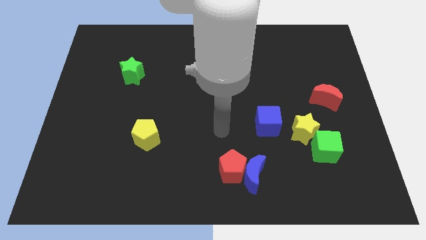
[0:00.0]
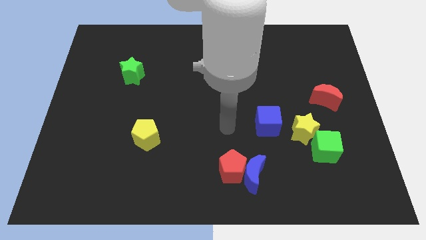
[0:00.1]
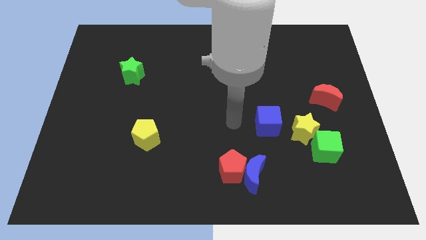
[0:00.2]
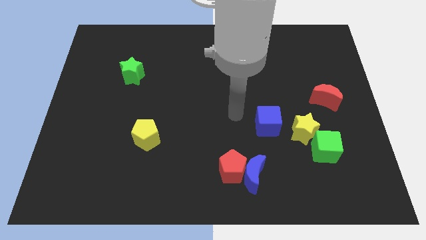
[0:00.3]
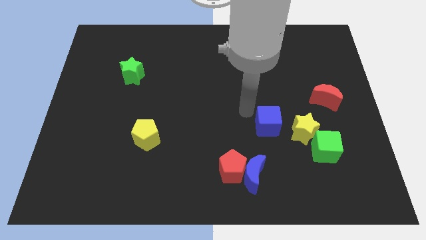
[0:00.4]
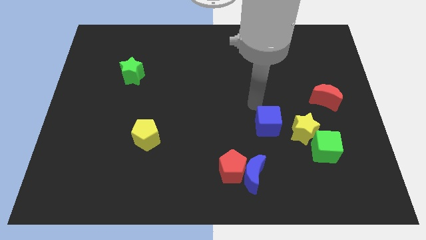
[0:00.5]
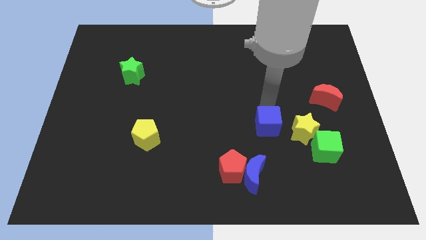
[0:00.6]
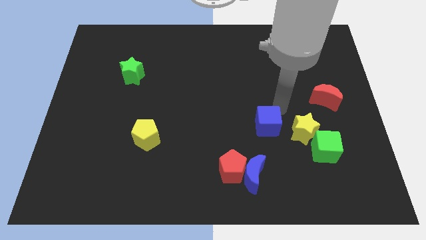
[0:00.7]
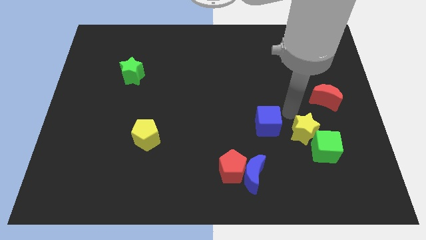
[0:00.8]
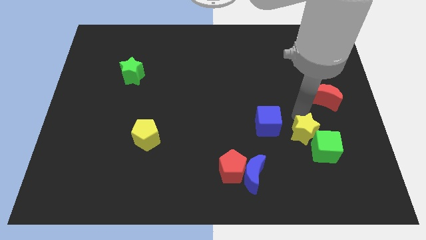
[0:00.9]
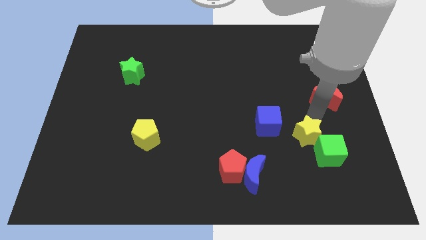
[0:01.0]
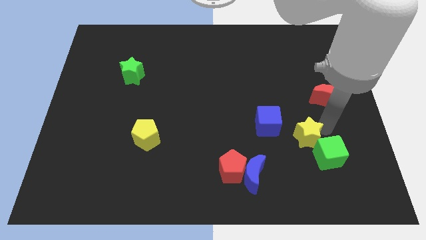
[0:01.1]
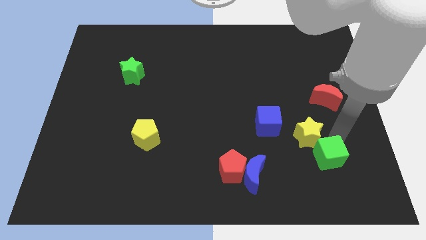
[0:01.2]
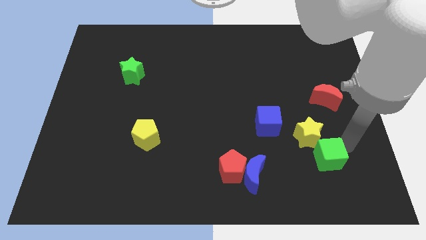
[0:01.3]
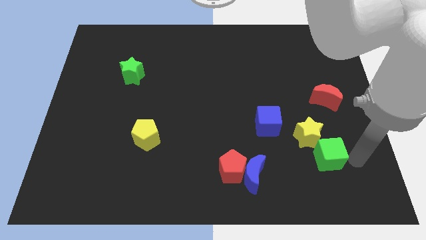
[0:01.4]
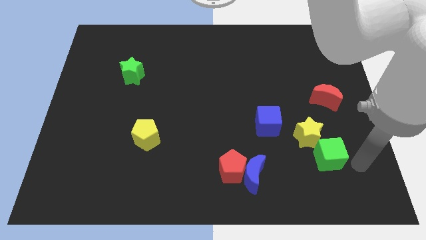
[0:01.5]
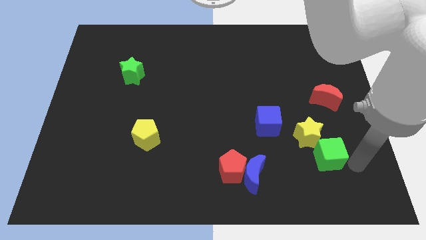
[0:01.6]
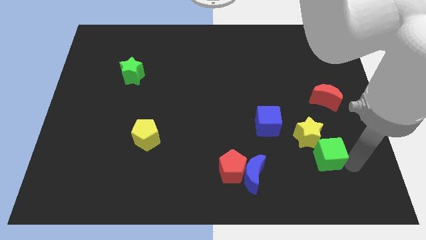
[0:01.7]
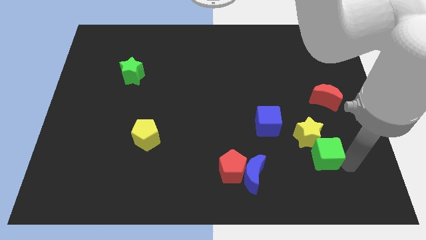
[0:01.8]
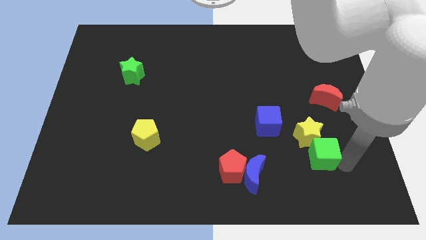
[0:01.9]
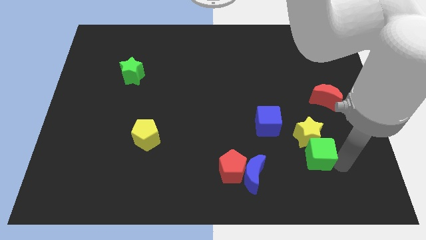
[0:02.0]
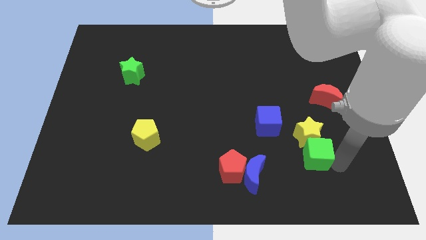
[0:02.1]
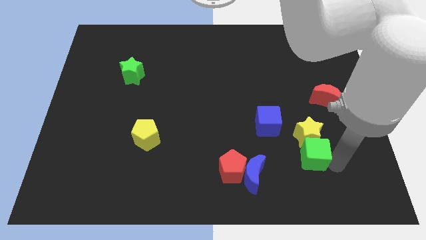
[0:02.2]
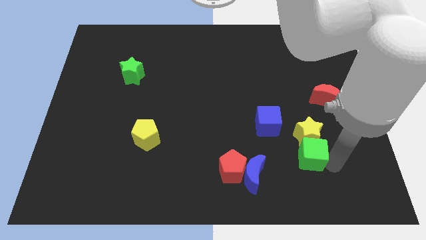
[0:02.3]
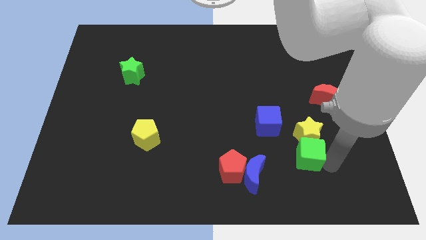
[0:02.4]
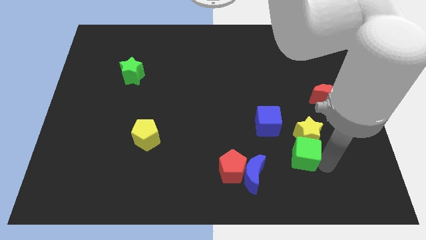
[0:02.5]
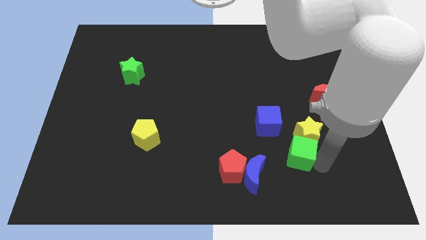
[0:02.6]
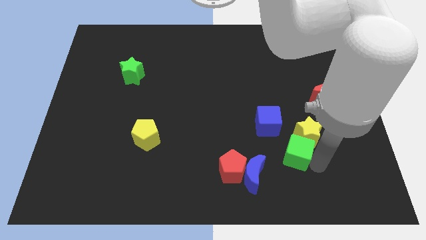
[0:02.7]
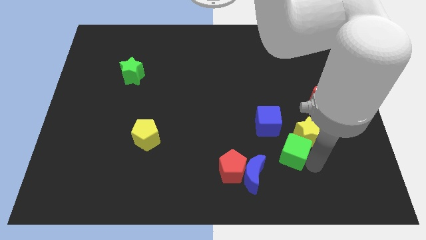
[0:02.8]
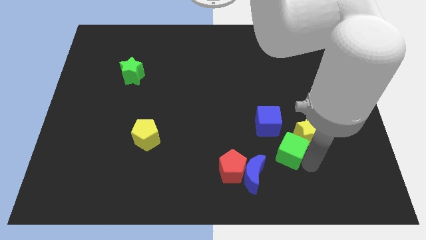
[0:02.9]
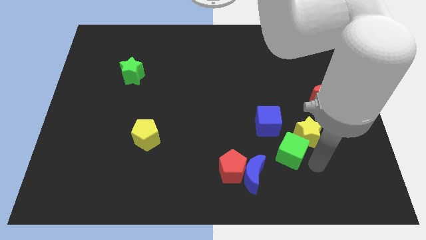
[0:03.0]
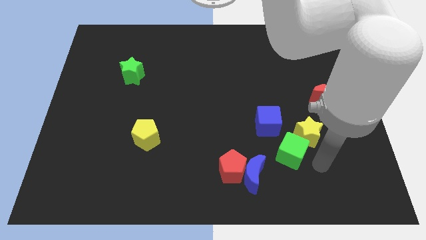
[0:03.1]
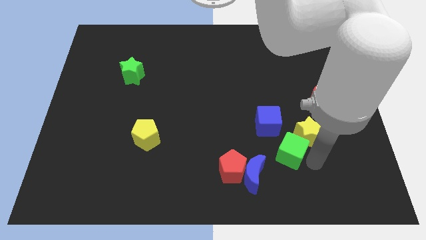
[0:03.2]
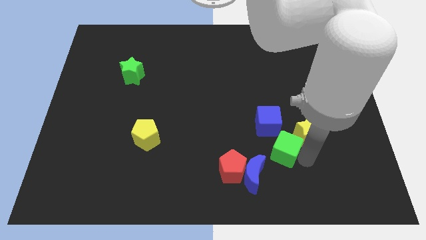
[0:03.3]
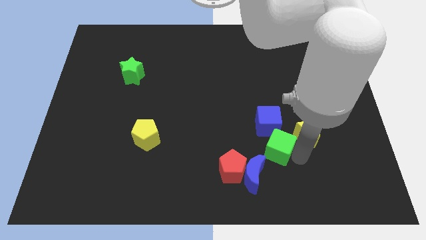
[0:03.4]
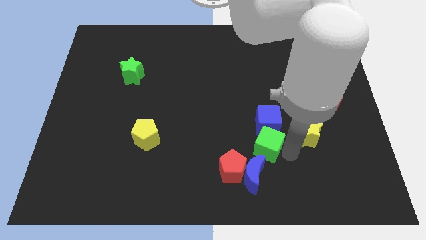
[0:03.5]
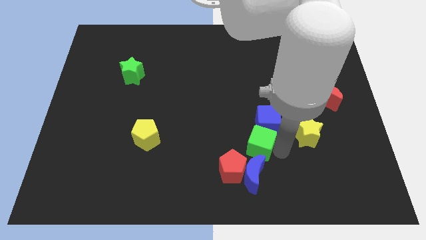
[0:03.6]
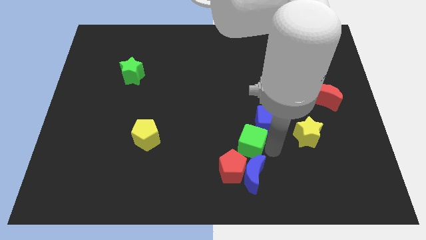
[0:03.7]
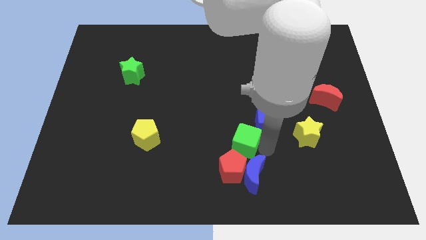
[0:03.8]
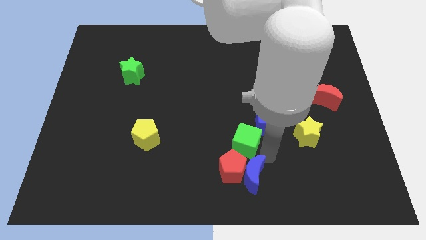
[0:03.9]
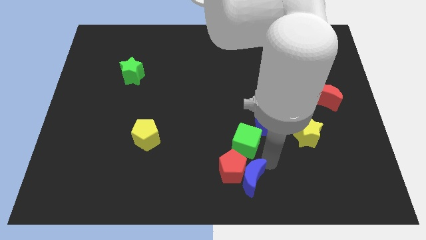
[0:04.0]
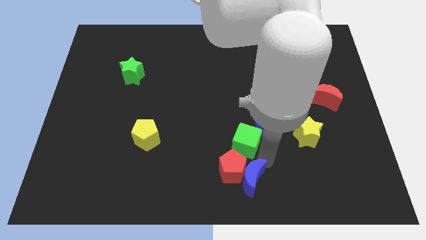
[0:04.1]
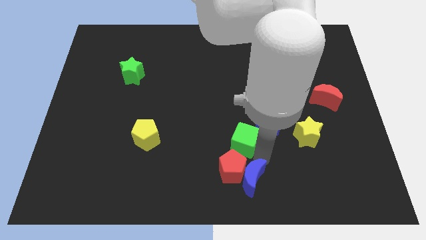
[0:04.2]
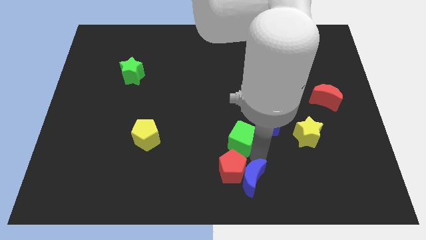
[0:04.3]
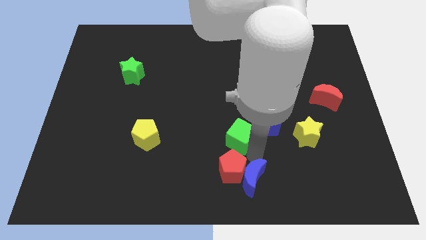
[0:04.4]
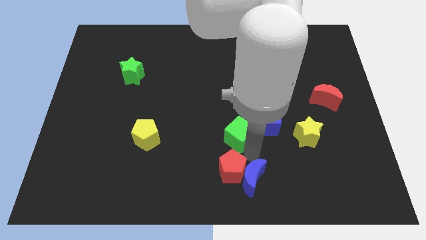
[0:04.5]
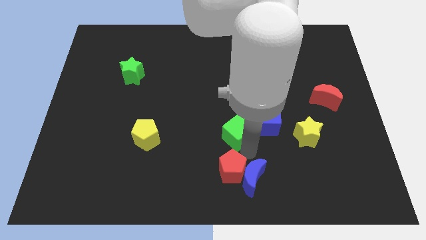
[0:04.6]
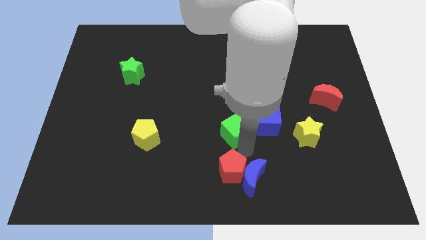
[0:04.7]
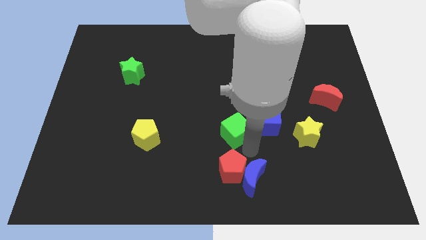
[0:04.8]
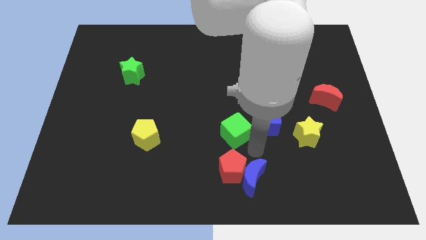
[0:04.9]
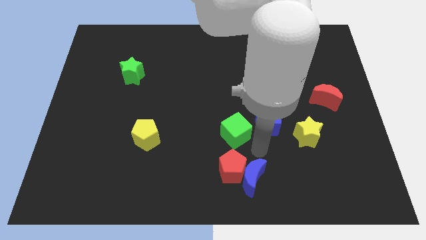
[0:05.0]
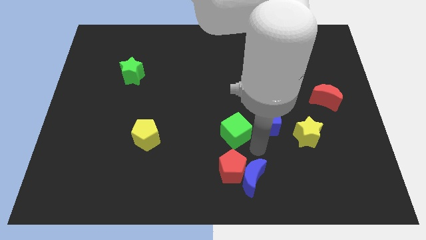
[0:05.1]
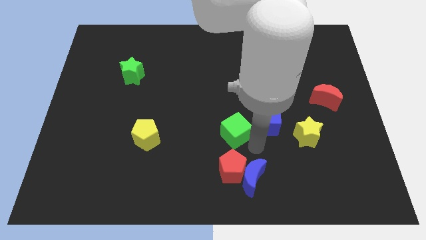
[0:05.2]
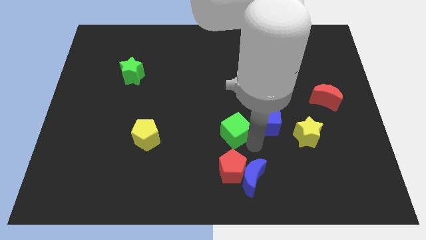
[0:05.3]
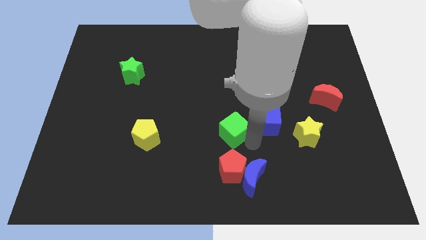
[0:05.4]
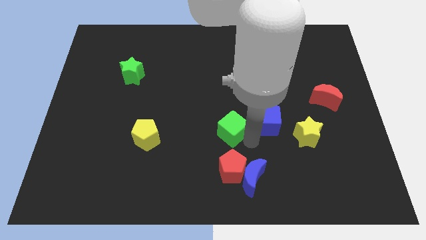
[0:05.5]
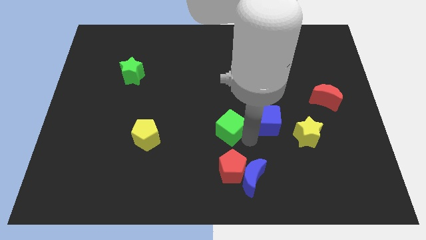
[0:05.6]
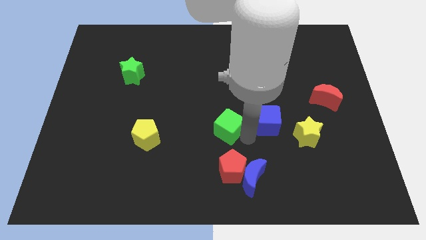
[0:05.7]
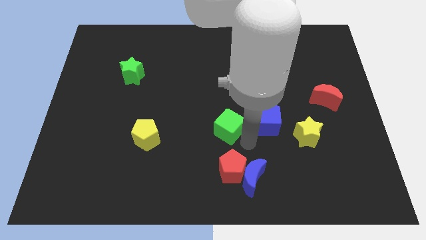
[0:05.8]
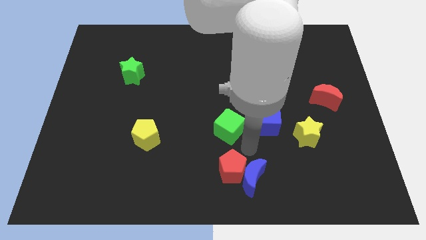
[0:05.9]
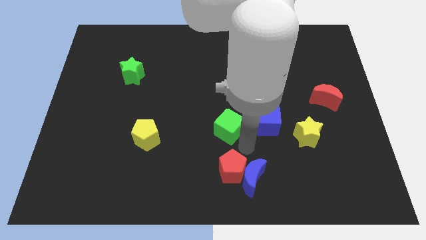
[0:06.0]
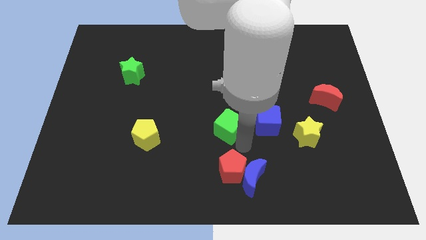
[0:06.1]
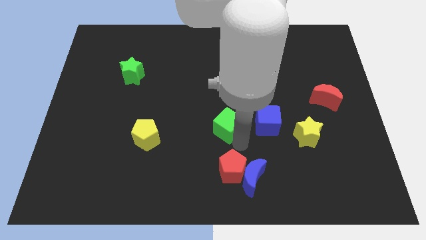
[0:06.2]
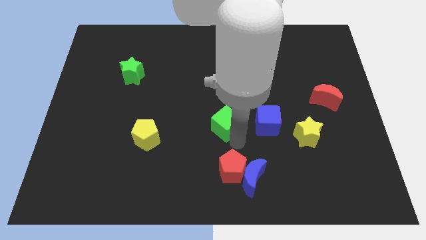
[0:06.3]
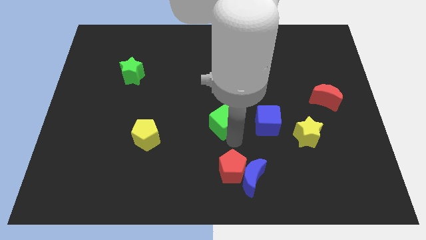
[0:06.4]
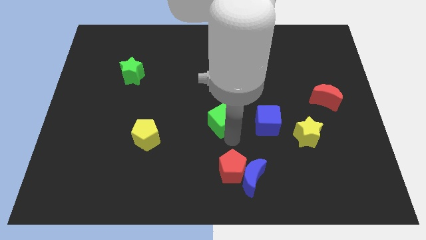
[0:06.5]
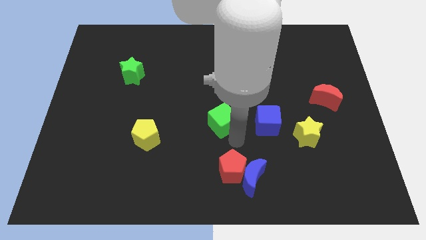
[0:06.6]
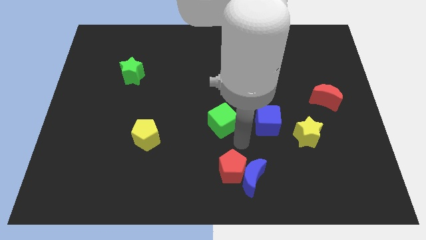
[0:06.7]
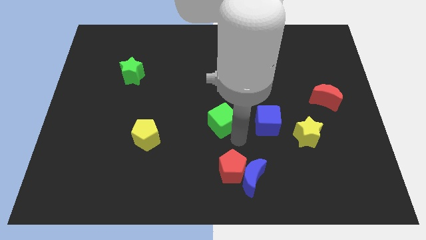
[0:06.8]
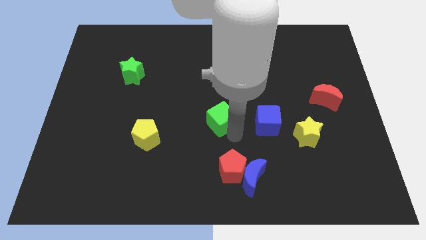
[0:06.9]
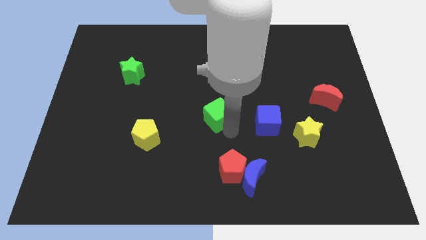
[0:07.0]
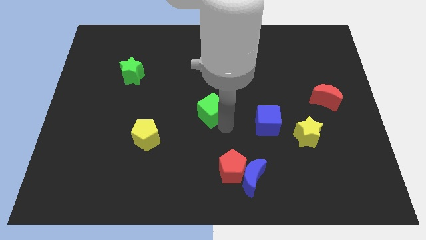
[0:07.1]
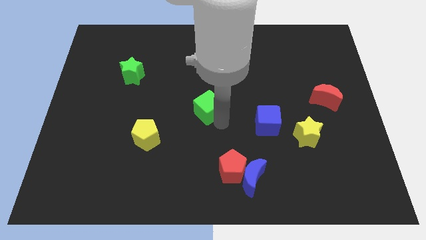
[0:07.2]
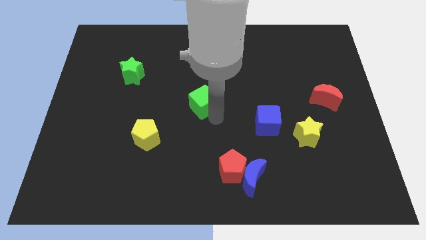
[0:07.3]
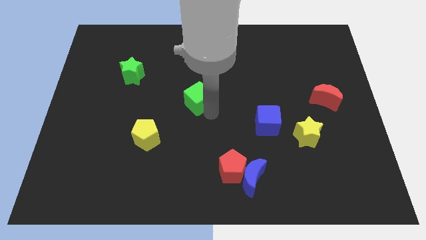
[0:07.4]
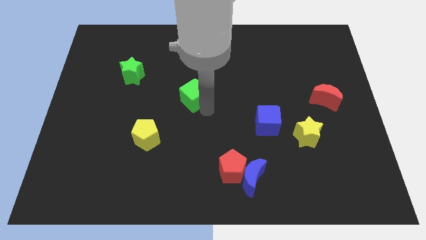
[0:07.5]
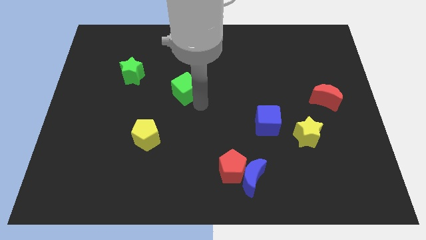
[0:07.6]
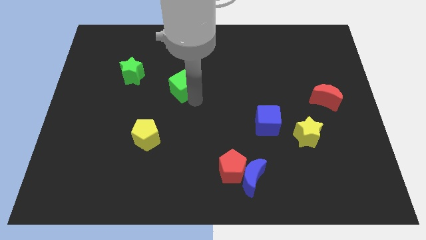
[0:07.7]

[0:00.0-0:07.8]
push the green cube right of the green star
